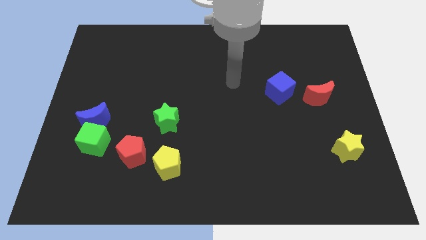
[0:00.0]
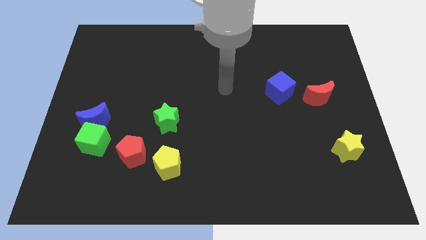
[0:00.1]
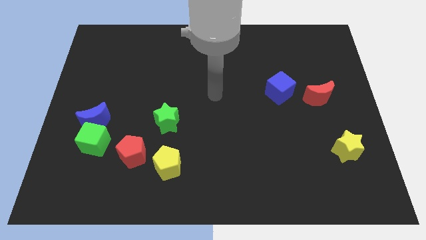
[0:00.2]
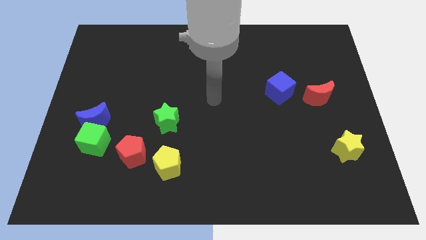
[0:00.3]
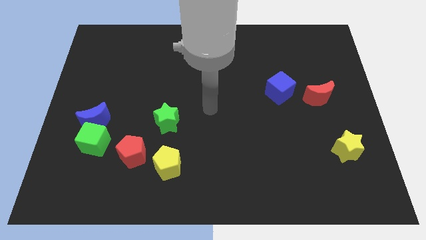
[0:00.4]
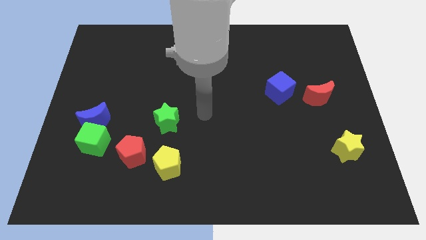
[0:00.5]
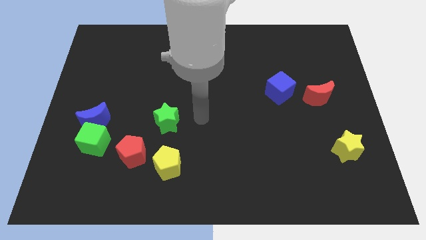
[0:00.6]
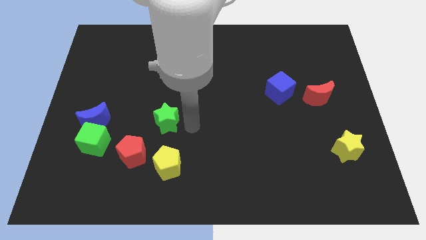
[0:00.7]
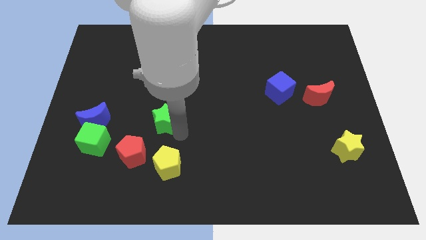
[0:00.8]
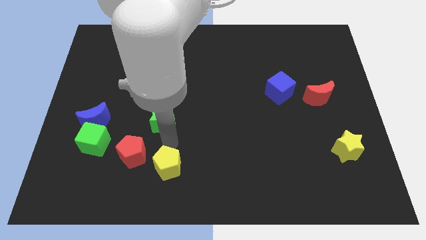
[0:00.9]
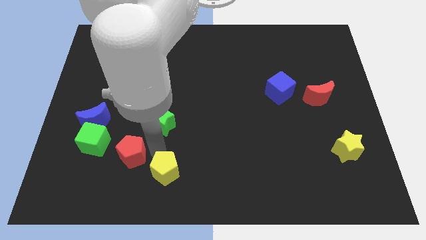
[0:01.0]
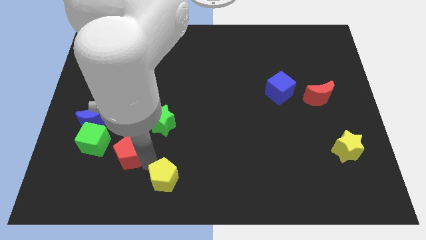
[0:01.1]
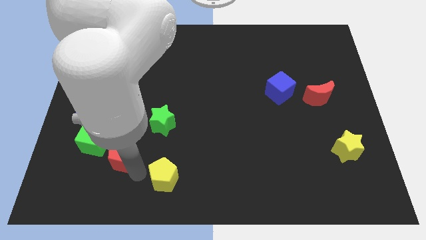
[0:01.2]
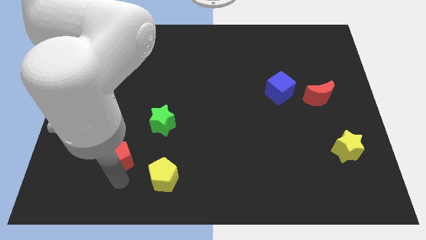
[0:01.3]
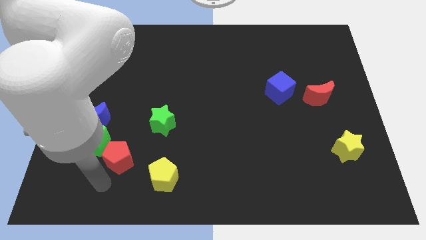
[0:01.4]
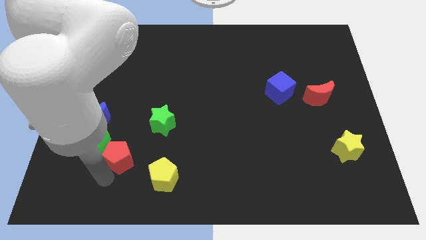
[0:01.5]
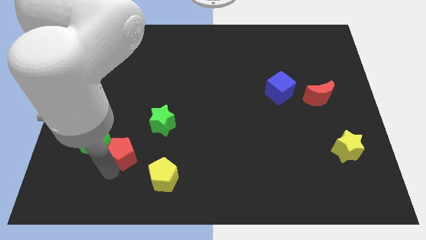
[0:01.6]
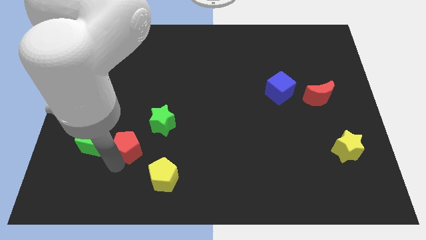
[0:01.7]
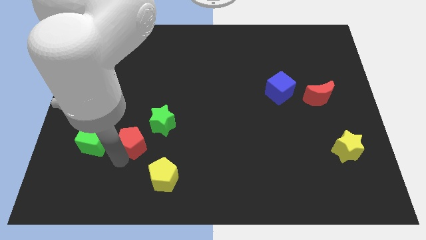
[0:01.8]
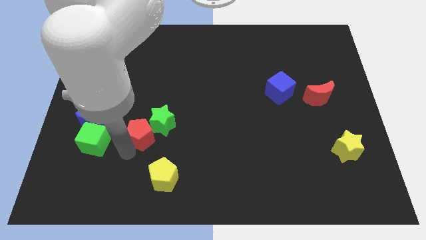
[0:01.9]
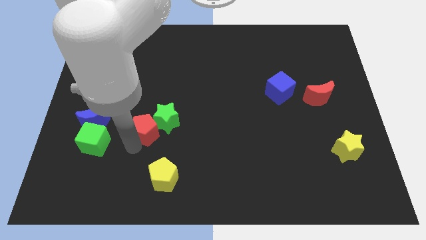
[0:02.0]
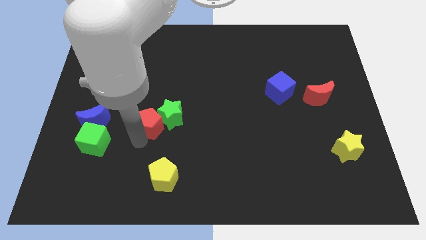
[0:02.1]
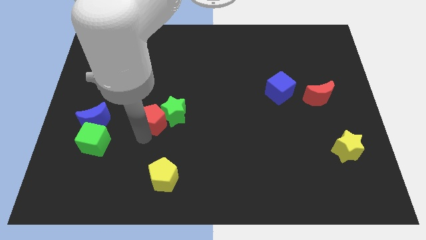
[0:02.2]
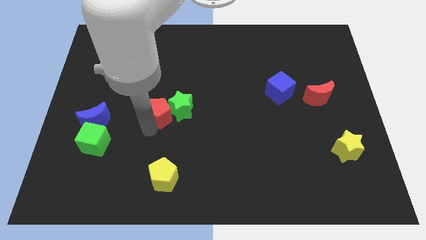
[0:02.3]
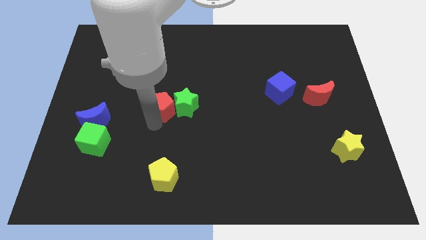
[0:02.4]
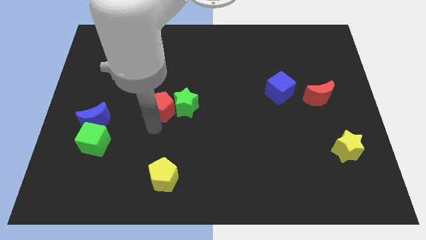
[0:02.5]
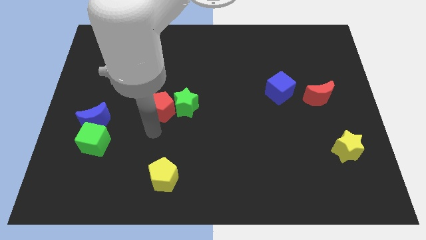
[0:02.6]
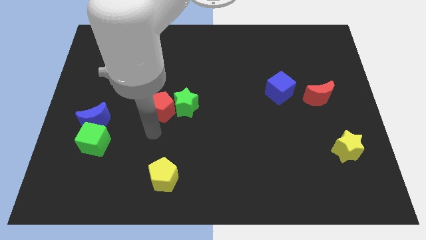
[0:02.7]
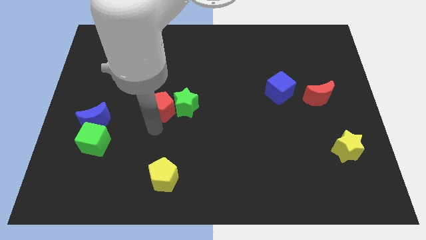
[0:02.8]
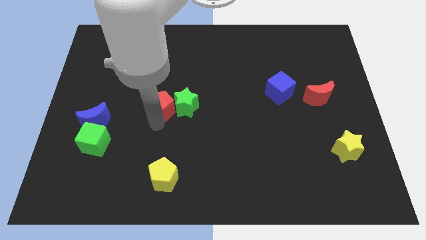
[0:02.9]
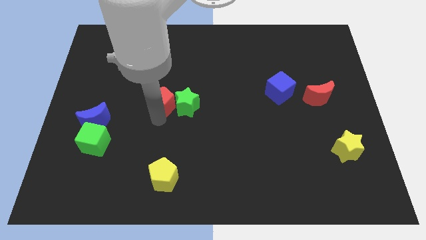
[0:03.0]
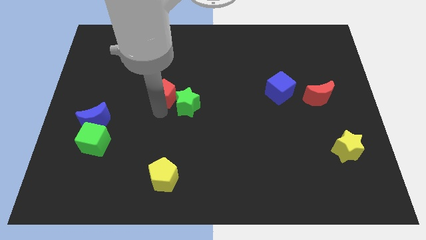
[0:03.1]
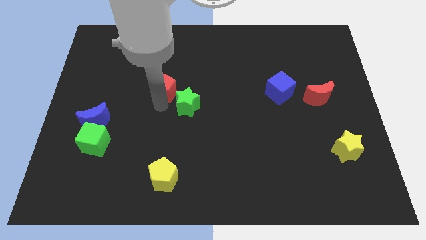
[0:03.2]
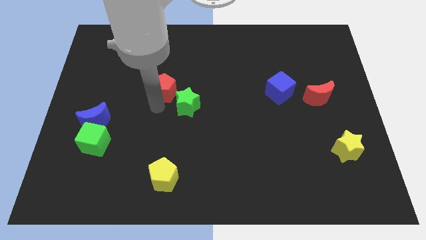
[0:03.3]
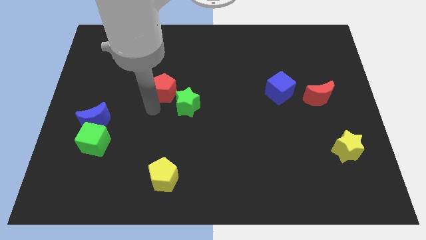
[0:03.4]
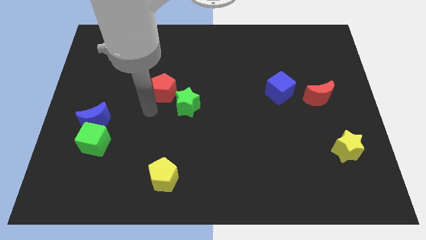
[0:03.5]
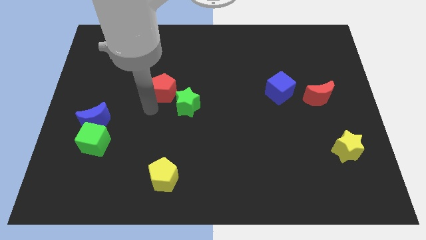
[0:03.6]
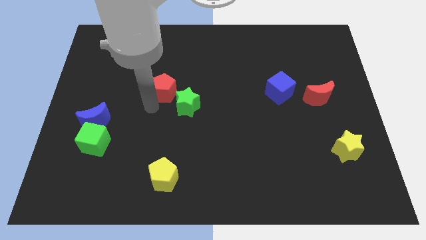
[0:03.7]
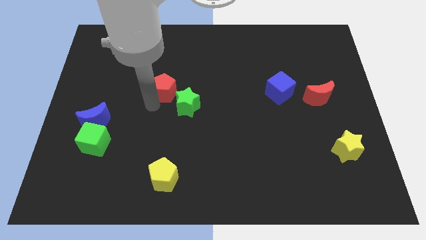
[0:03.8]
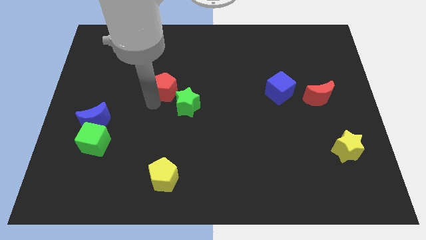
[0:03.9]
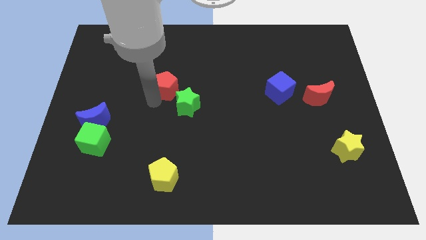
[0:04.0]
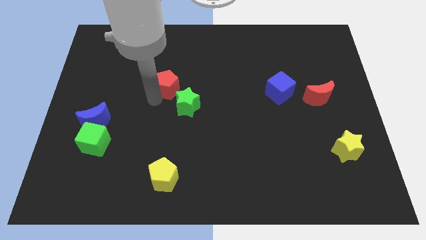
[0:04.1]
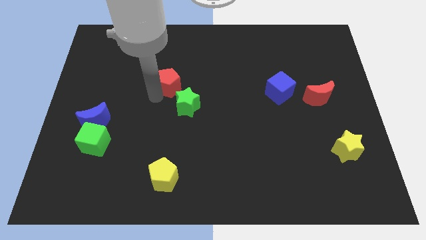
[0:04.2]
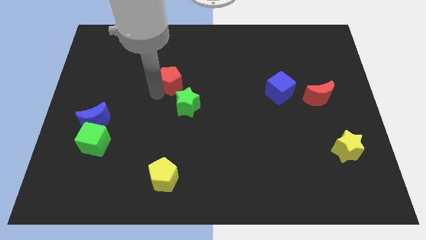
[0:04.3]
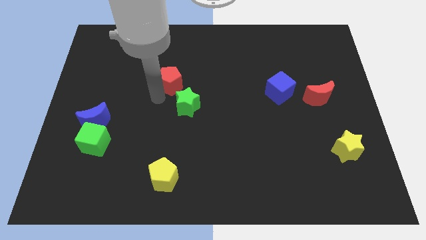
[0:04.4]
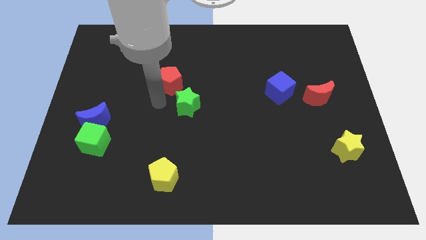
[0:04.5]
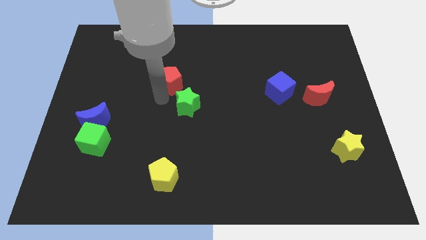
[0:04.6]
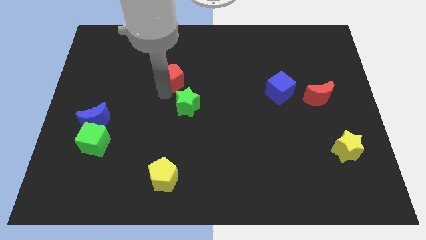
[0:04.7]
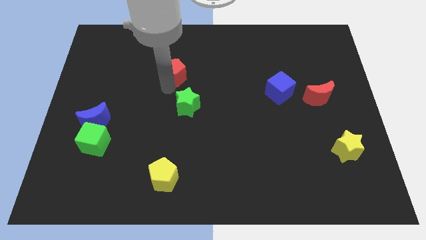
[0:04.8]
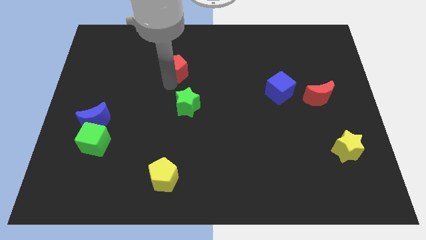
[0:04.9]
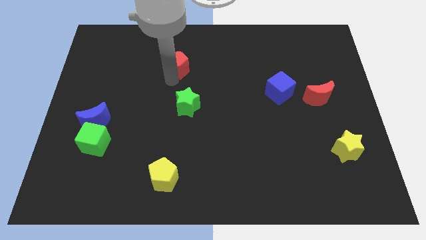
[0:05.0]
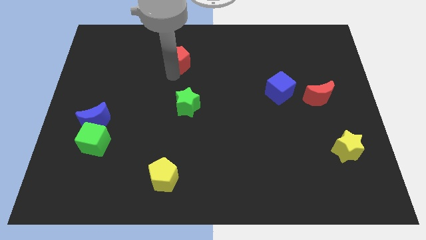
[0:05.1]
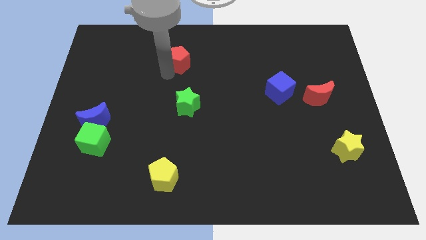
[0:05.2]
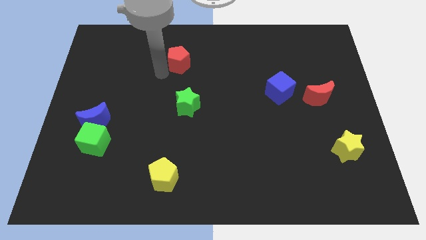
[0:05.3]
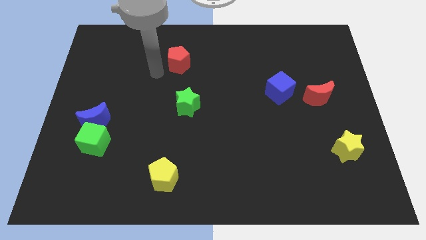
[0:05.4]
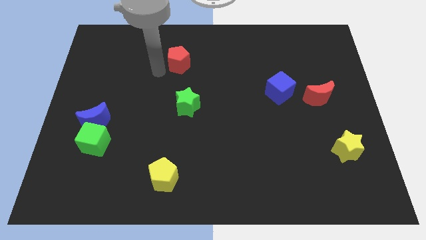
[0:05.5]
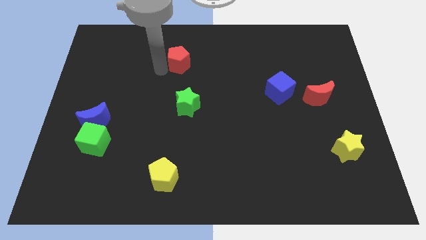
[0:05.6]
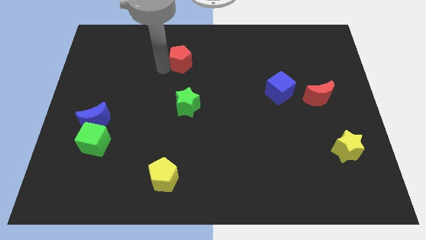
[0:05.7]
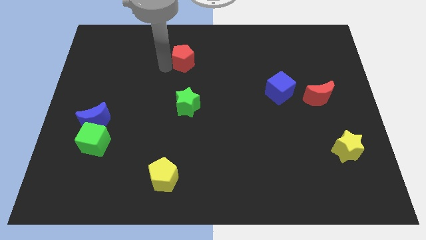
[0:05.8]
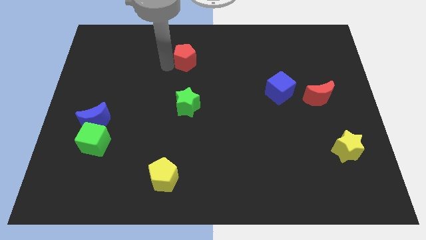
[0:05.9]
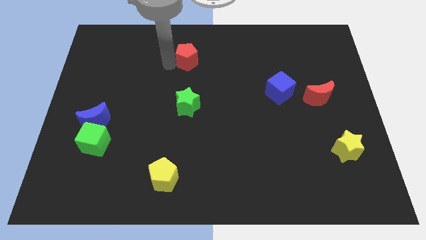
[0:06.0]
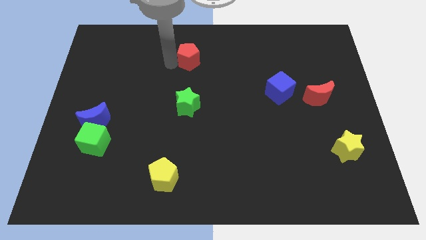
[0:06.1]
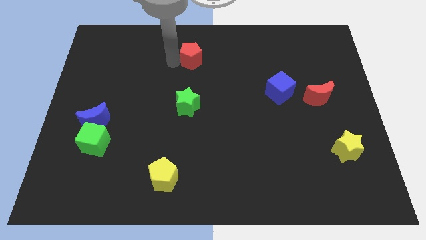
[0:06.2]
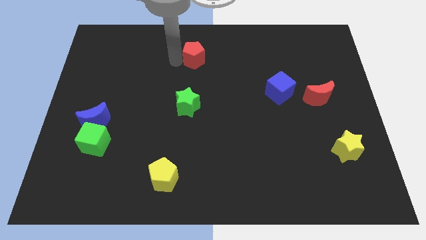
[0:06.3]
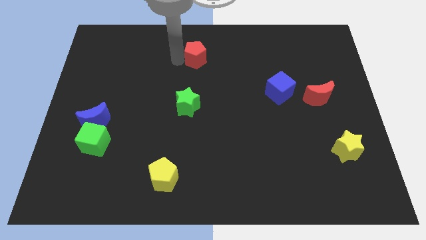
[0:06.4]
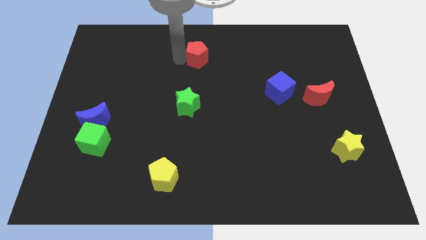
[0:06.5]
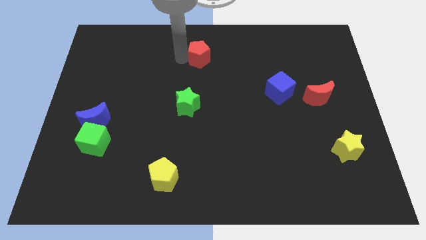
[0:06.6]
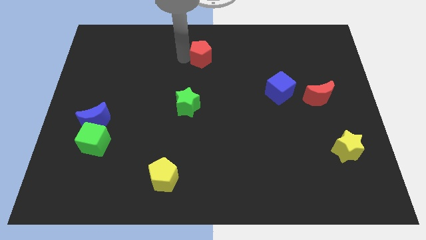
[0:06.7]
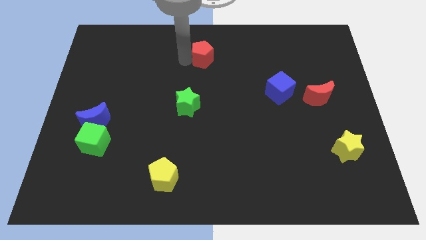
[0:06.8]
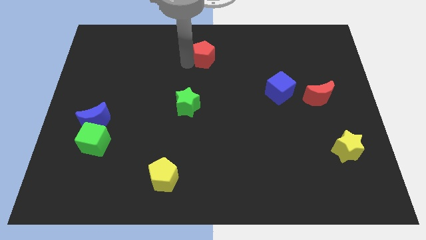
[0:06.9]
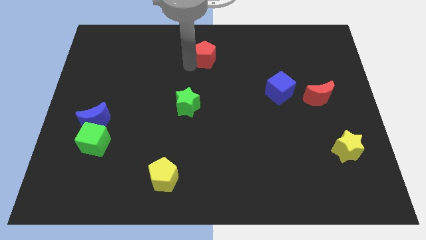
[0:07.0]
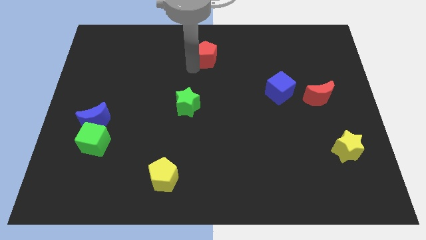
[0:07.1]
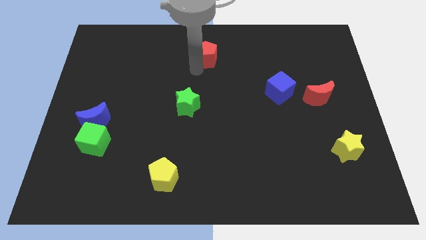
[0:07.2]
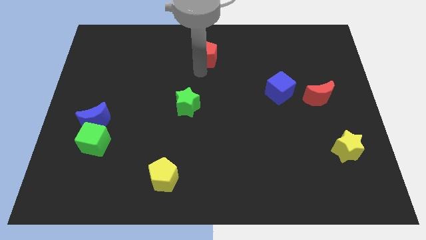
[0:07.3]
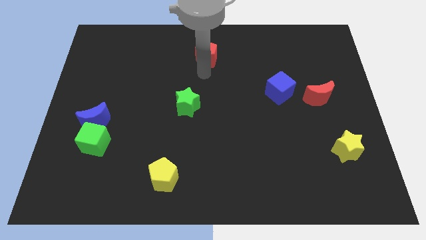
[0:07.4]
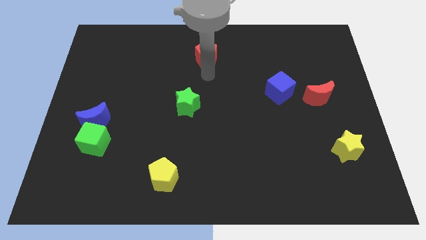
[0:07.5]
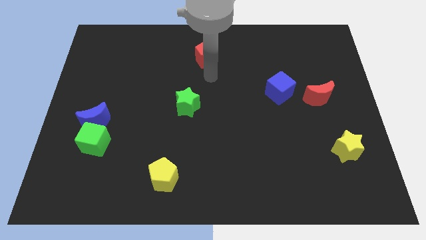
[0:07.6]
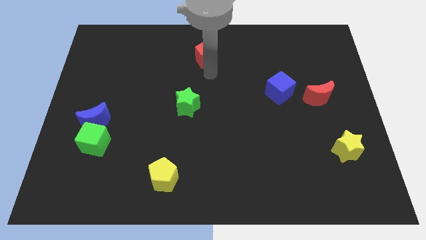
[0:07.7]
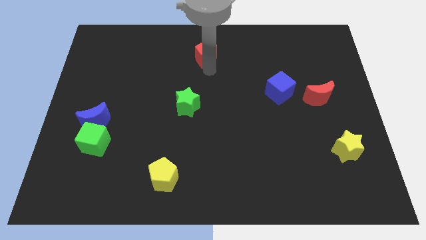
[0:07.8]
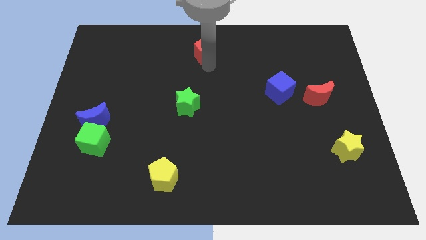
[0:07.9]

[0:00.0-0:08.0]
put the red pentagon to the top
